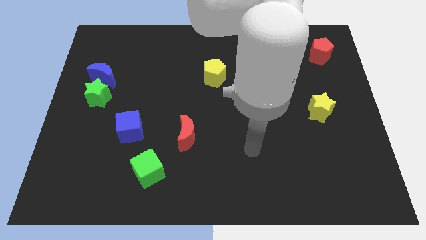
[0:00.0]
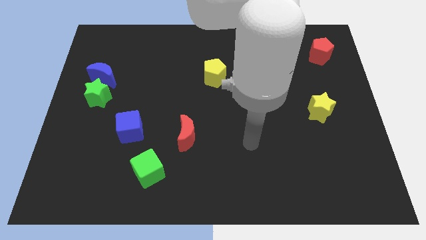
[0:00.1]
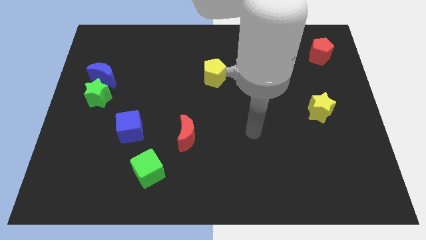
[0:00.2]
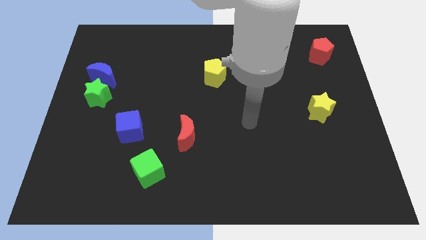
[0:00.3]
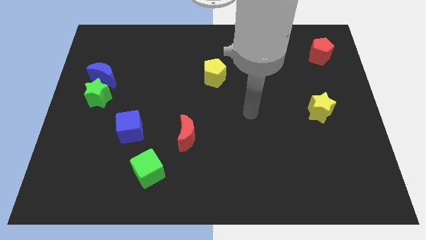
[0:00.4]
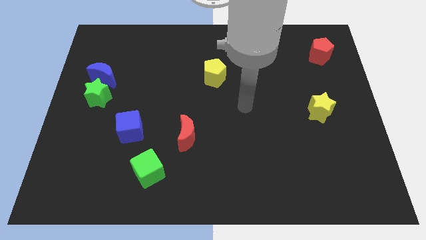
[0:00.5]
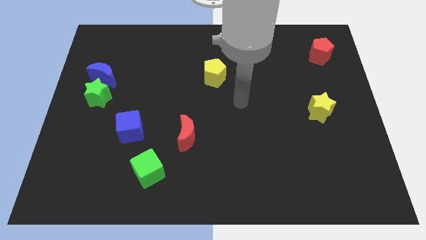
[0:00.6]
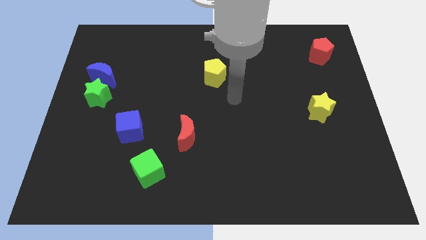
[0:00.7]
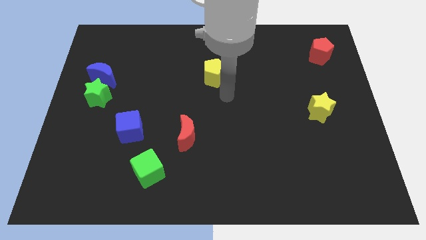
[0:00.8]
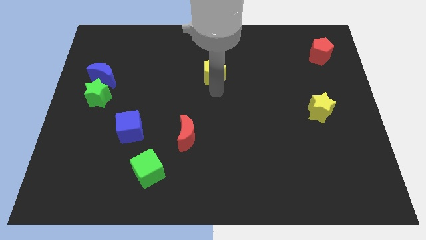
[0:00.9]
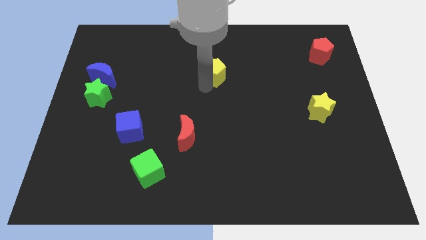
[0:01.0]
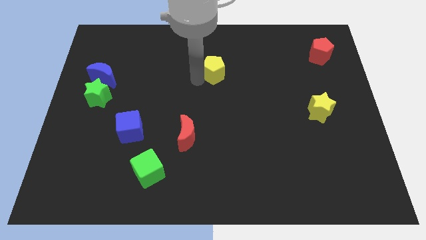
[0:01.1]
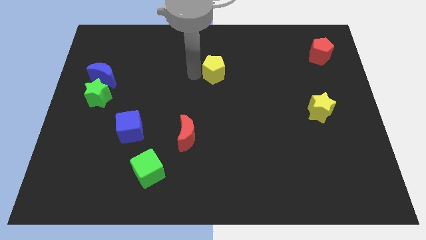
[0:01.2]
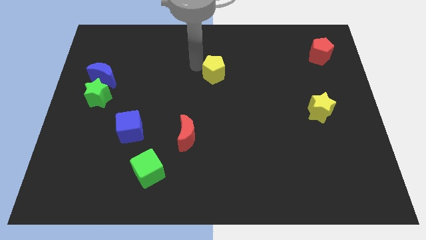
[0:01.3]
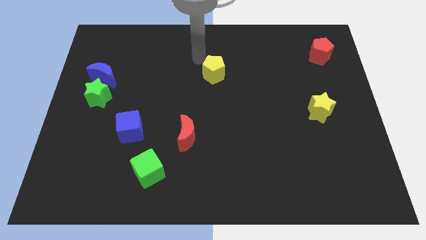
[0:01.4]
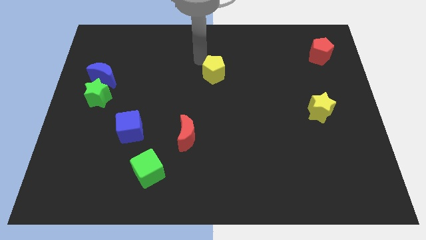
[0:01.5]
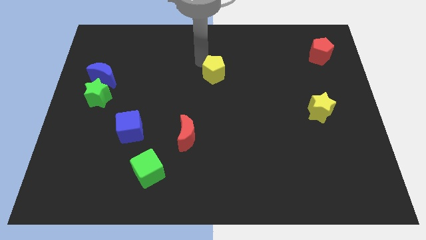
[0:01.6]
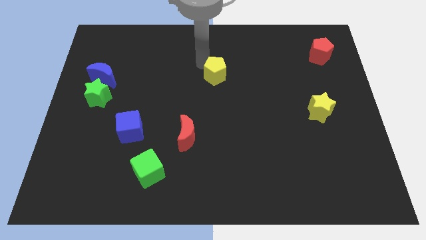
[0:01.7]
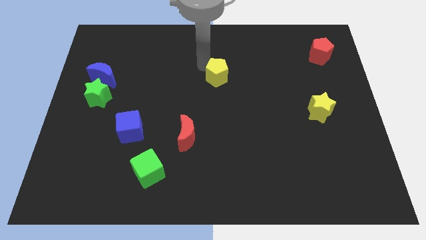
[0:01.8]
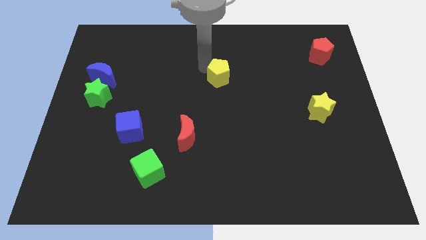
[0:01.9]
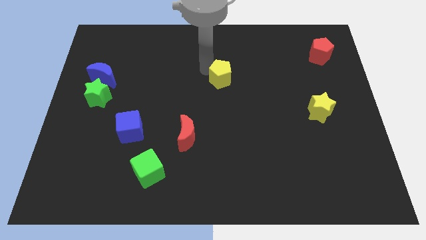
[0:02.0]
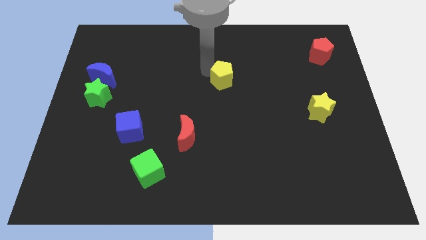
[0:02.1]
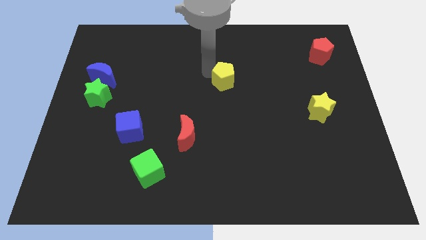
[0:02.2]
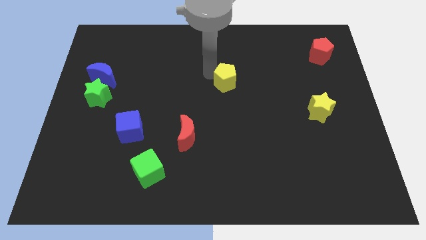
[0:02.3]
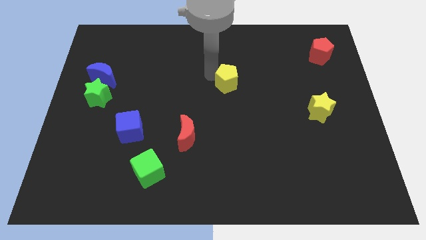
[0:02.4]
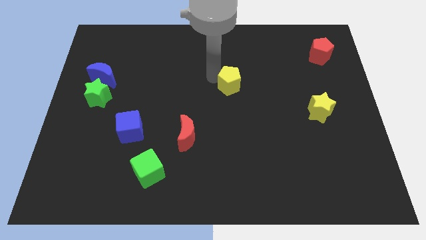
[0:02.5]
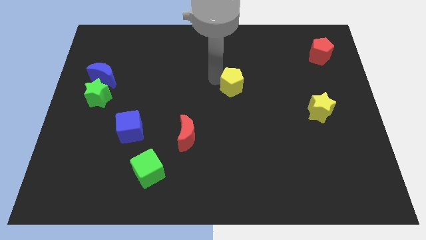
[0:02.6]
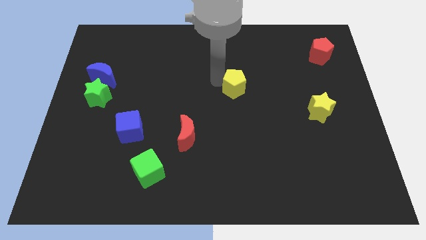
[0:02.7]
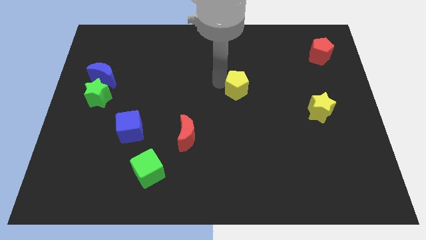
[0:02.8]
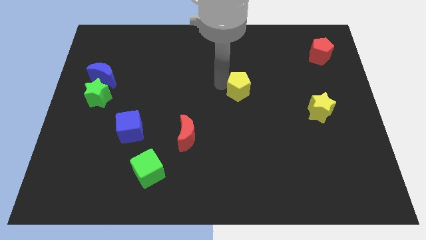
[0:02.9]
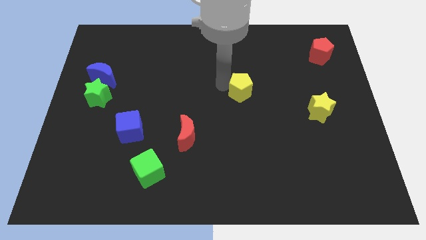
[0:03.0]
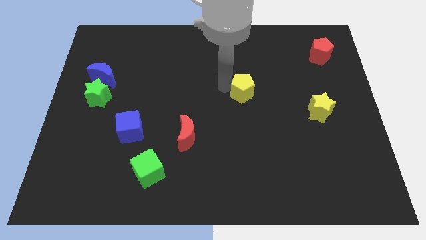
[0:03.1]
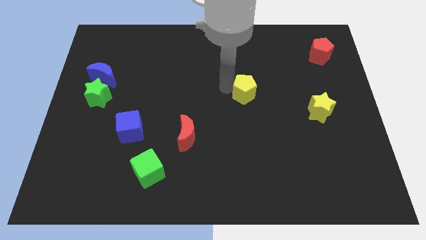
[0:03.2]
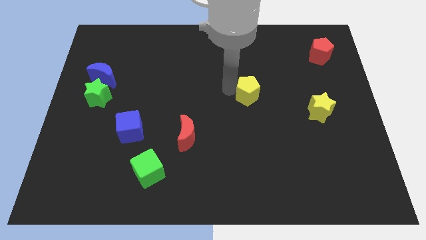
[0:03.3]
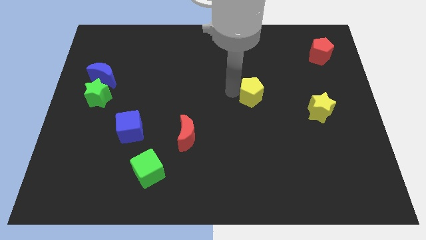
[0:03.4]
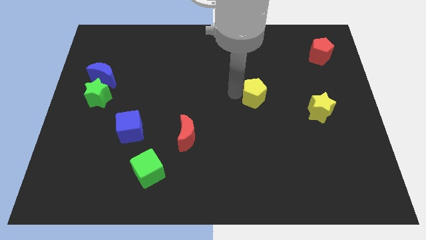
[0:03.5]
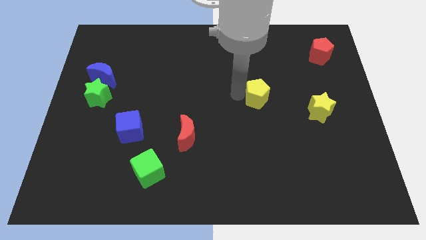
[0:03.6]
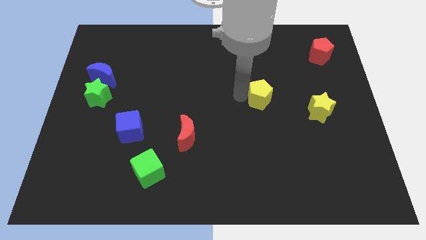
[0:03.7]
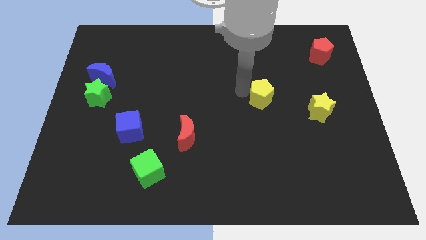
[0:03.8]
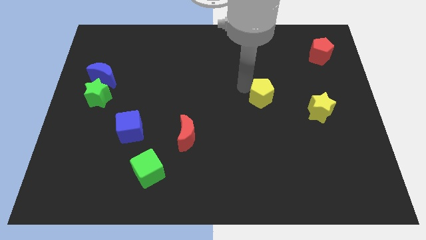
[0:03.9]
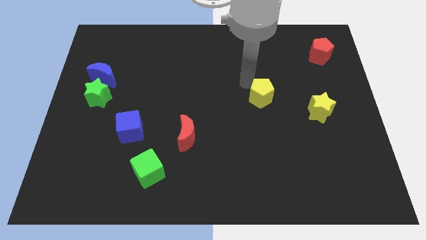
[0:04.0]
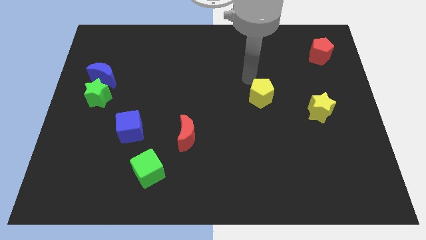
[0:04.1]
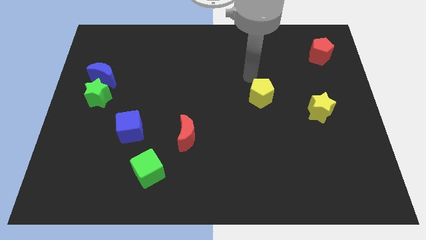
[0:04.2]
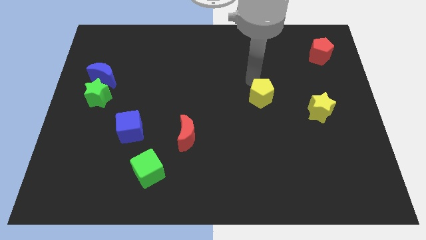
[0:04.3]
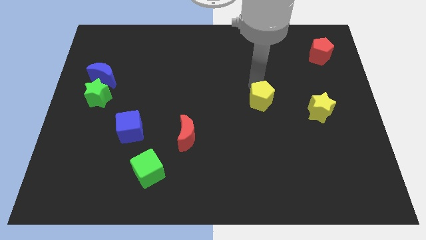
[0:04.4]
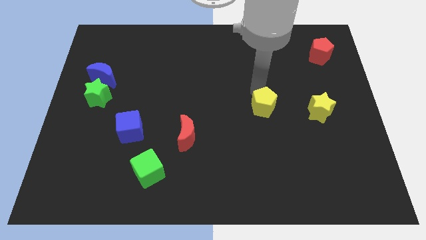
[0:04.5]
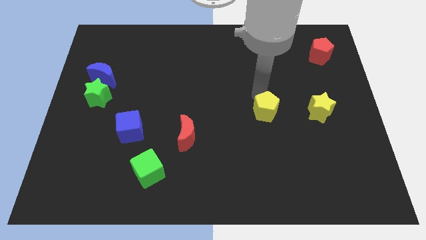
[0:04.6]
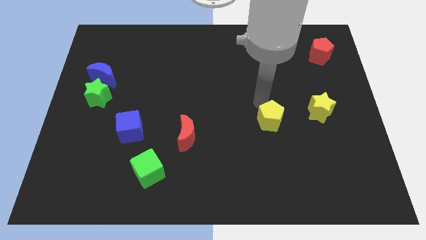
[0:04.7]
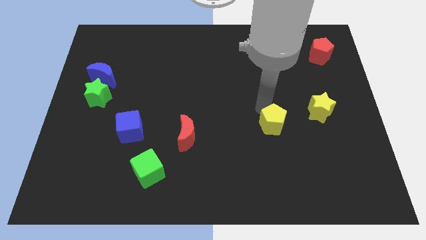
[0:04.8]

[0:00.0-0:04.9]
push the yellow pentagon downwards and then right

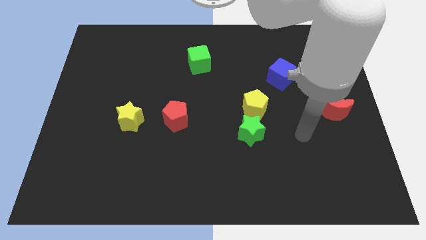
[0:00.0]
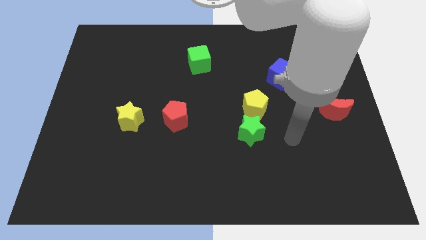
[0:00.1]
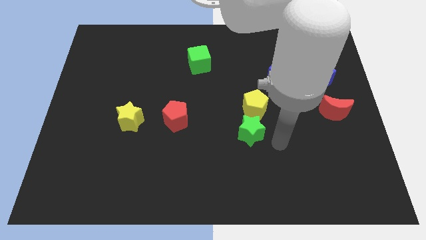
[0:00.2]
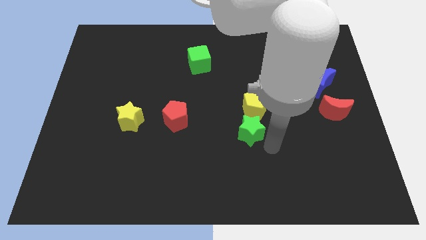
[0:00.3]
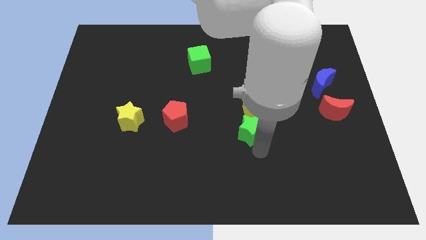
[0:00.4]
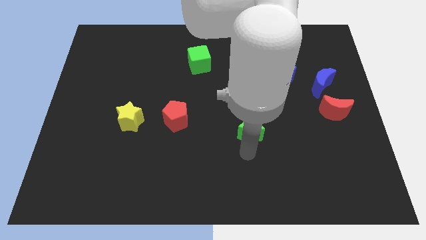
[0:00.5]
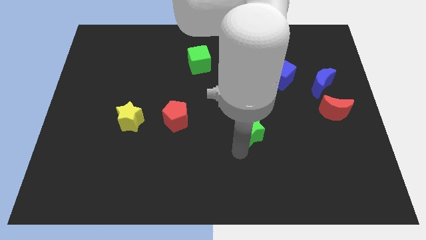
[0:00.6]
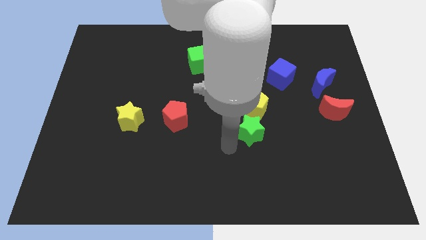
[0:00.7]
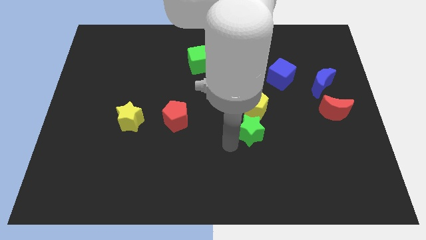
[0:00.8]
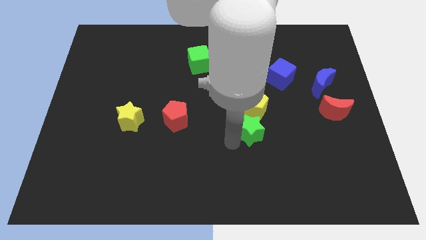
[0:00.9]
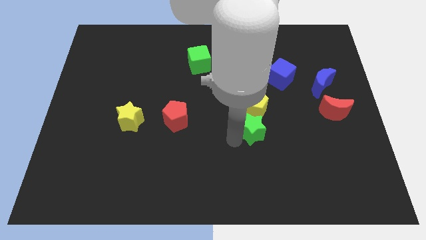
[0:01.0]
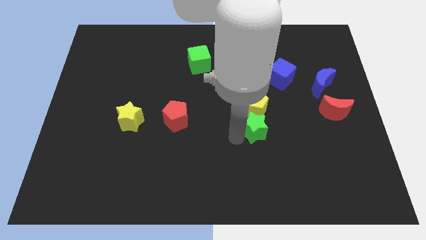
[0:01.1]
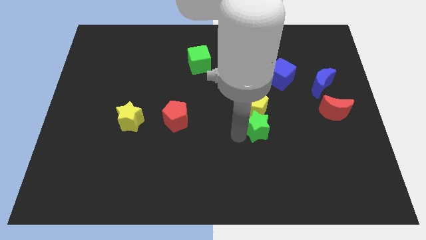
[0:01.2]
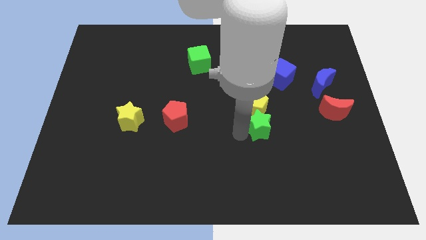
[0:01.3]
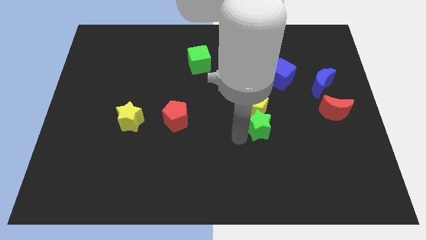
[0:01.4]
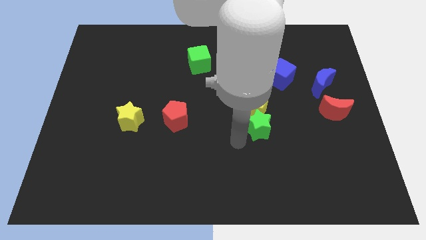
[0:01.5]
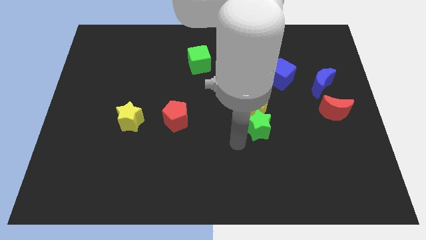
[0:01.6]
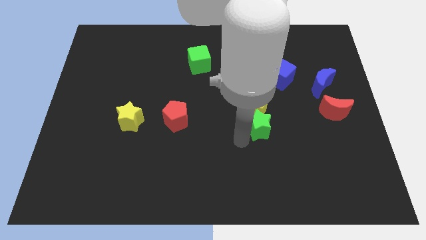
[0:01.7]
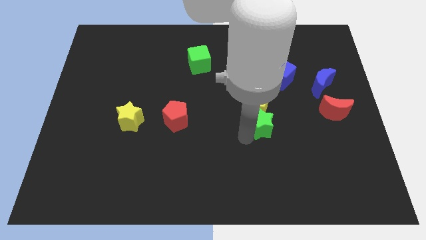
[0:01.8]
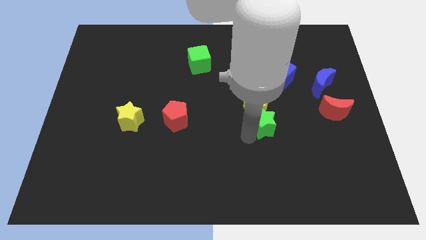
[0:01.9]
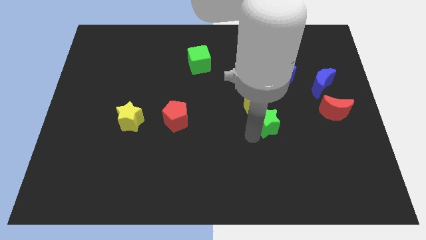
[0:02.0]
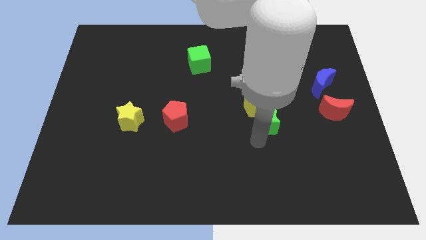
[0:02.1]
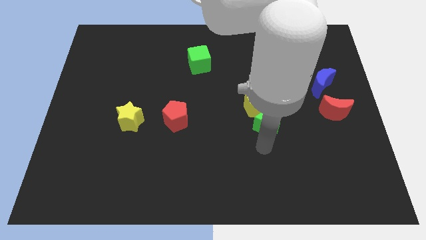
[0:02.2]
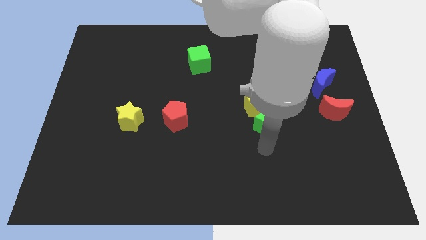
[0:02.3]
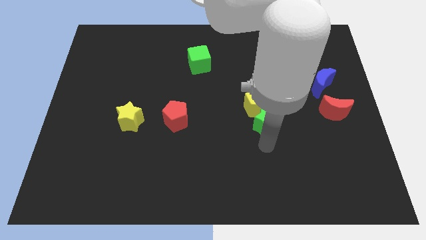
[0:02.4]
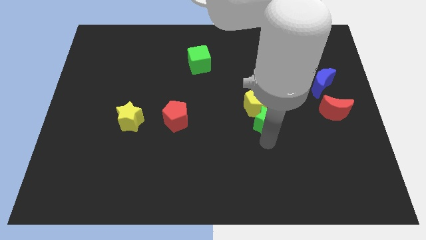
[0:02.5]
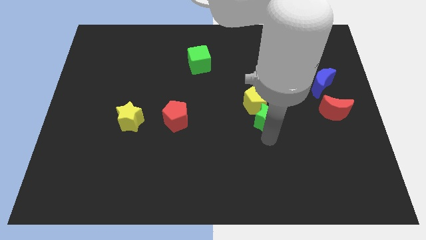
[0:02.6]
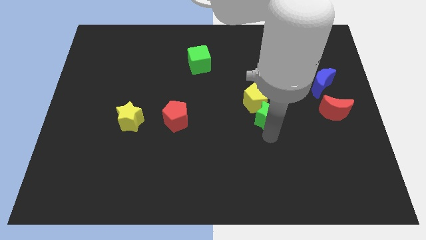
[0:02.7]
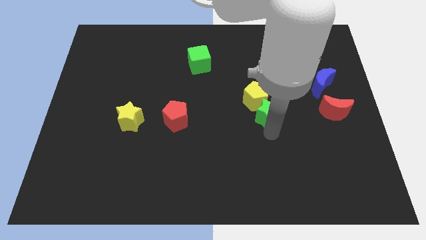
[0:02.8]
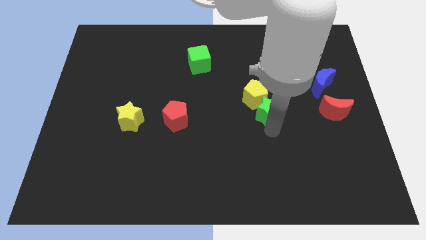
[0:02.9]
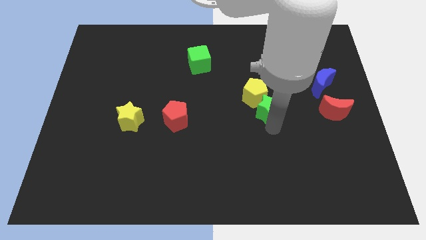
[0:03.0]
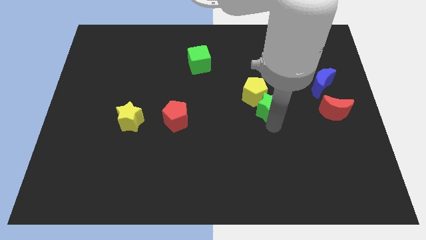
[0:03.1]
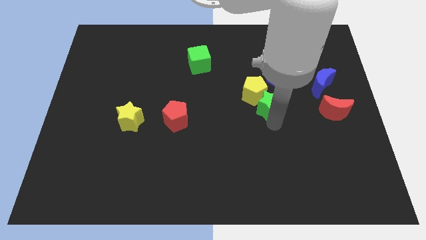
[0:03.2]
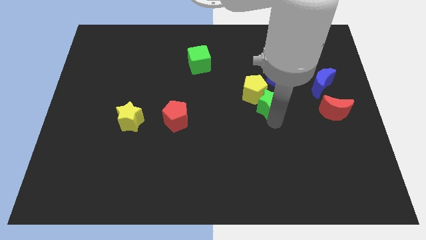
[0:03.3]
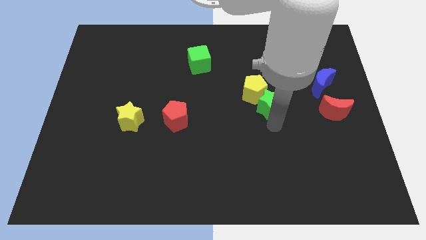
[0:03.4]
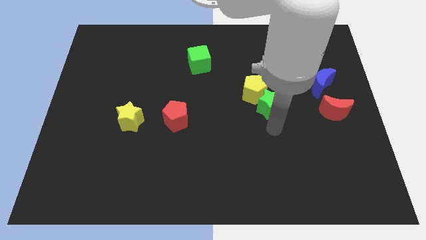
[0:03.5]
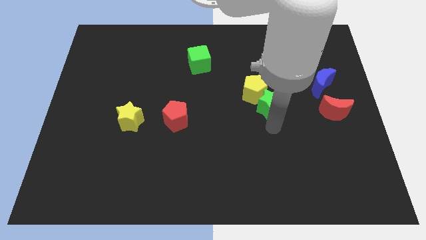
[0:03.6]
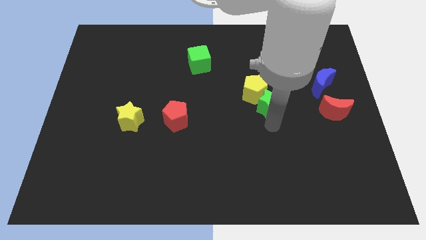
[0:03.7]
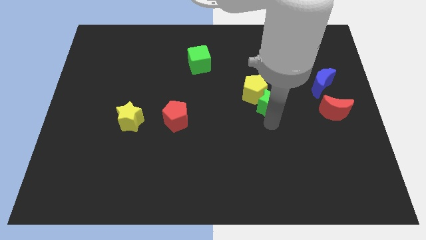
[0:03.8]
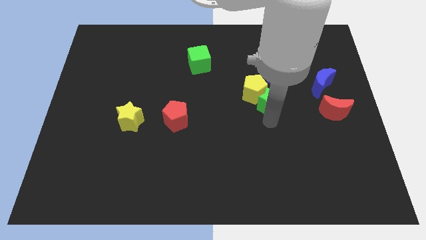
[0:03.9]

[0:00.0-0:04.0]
slightly push the green star up
